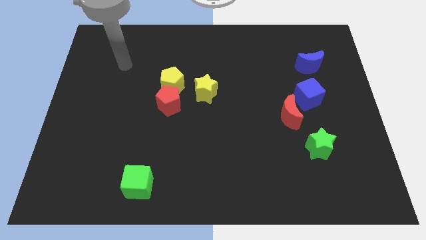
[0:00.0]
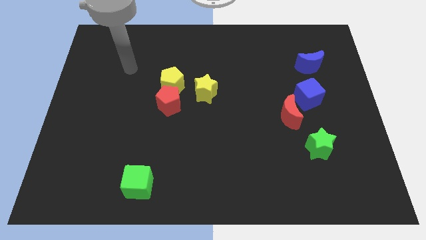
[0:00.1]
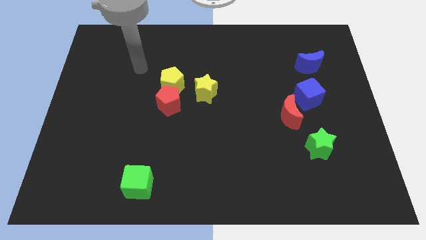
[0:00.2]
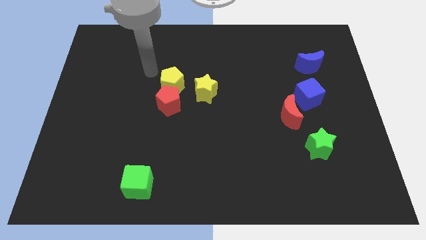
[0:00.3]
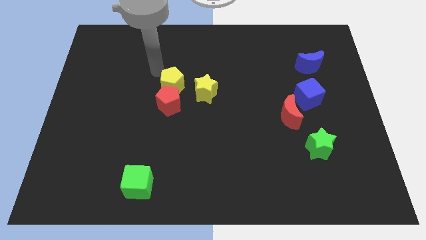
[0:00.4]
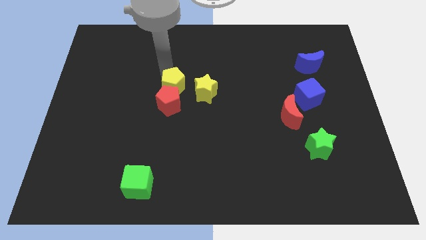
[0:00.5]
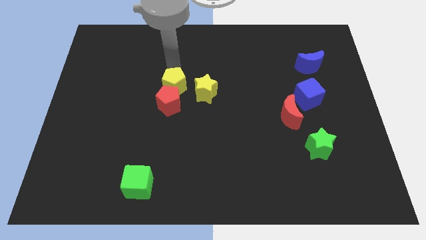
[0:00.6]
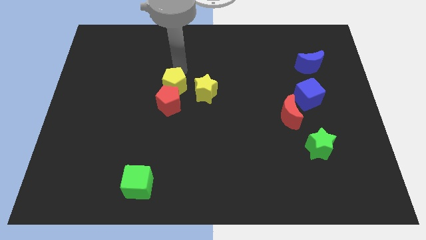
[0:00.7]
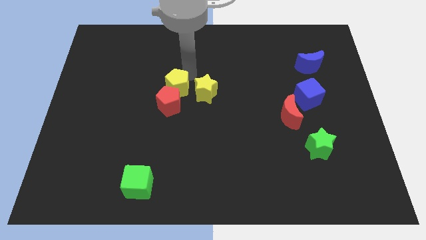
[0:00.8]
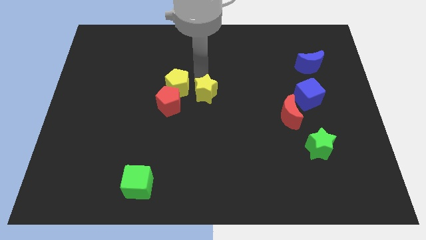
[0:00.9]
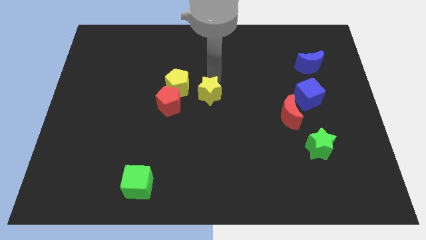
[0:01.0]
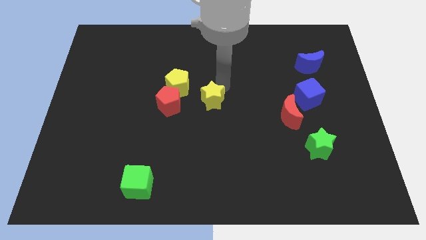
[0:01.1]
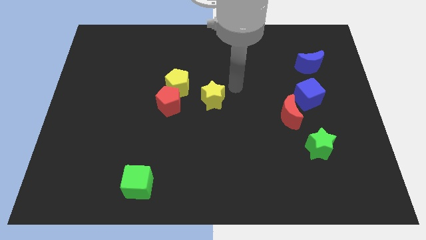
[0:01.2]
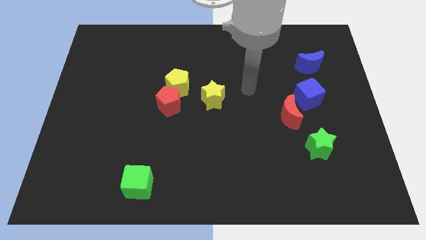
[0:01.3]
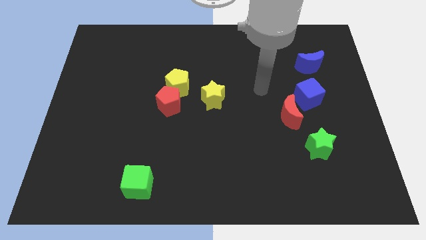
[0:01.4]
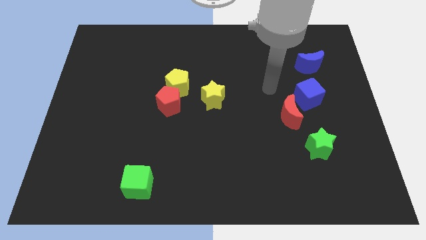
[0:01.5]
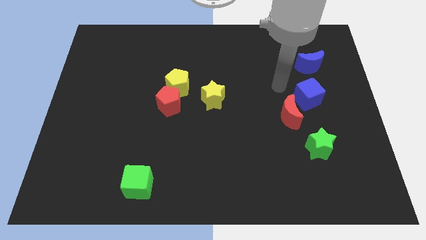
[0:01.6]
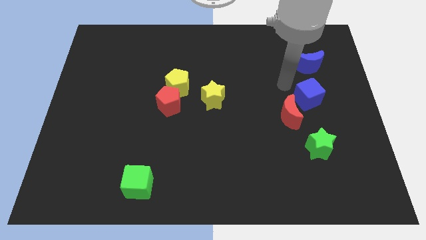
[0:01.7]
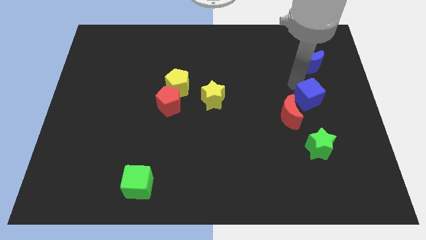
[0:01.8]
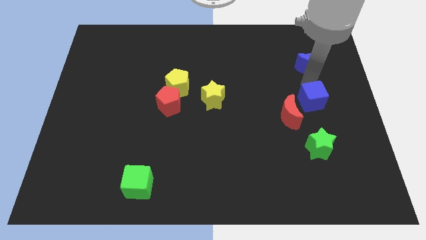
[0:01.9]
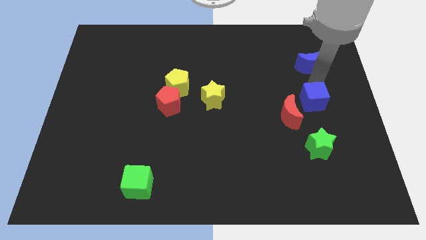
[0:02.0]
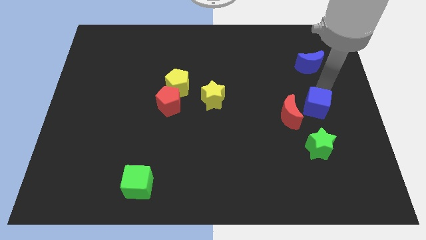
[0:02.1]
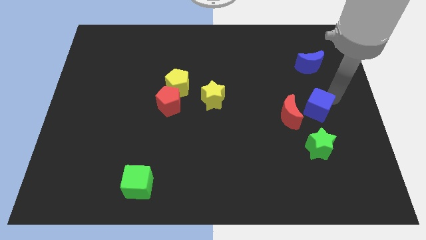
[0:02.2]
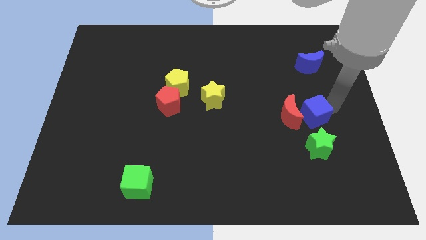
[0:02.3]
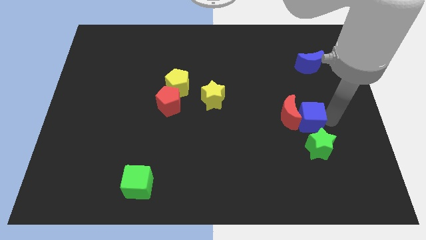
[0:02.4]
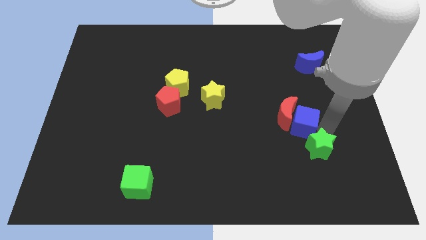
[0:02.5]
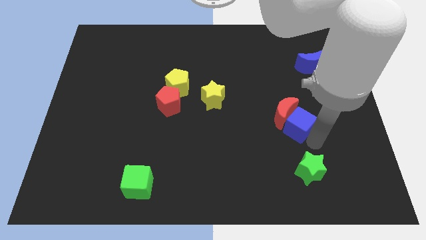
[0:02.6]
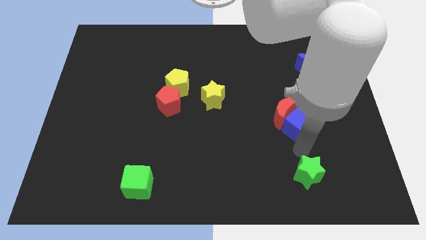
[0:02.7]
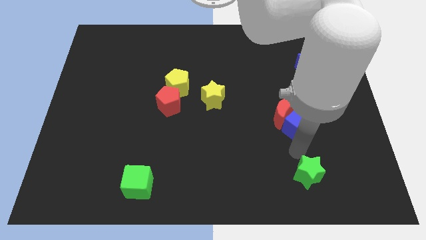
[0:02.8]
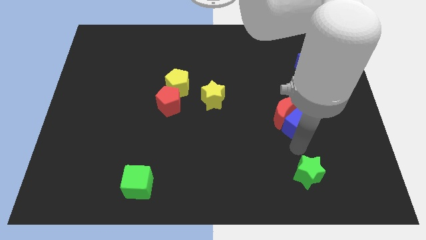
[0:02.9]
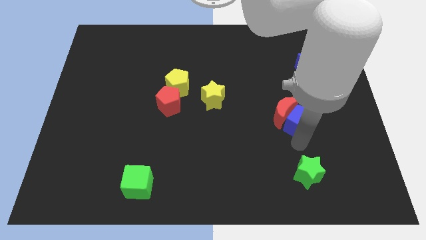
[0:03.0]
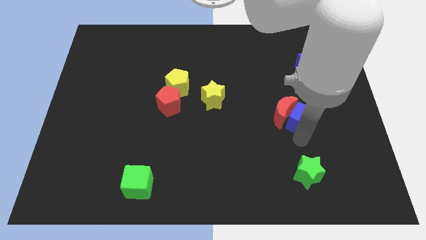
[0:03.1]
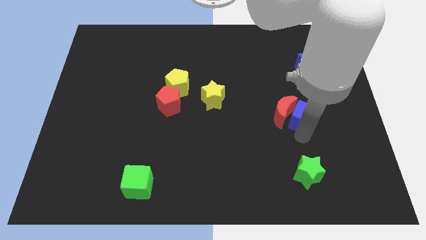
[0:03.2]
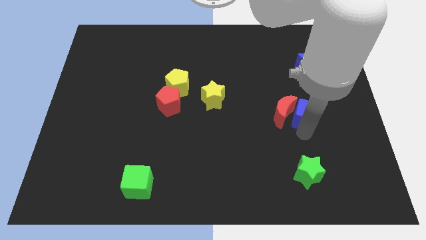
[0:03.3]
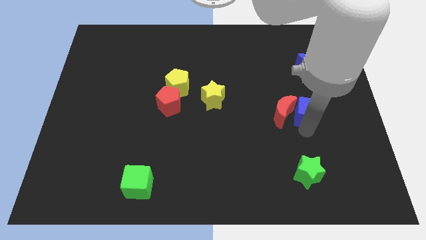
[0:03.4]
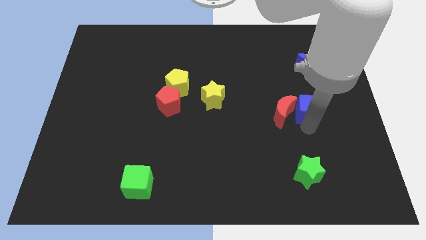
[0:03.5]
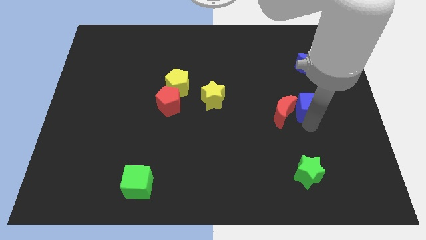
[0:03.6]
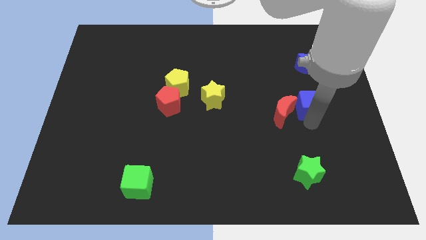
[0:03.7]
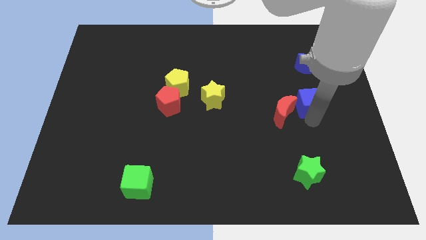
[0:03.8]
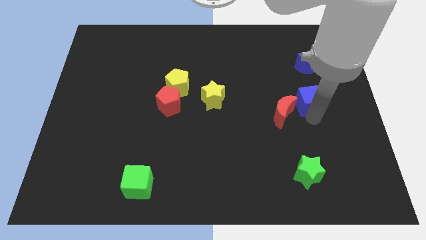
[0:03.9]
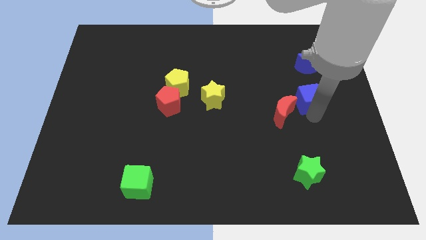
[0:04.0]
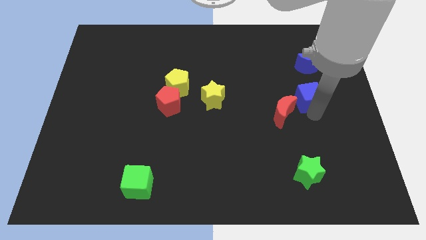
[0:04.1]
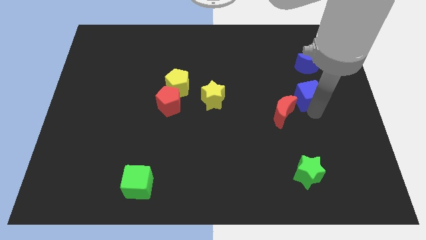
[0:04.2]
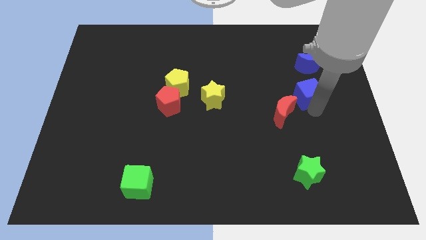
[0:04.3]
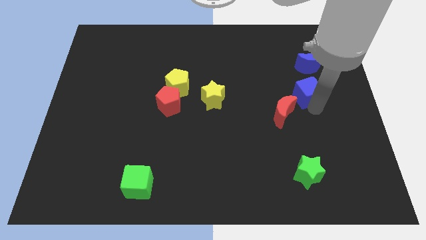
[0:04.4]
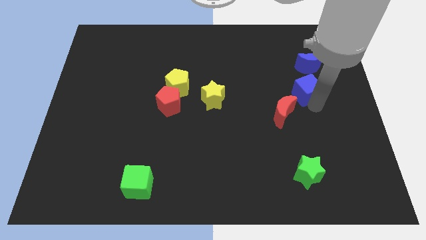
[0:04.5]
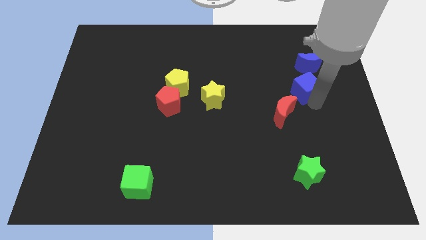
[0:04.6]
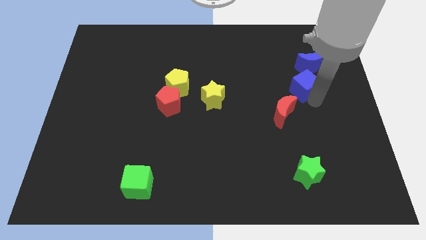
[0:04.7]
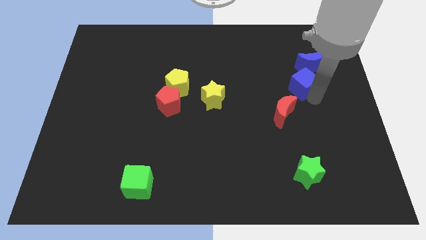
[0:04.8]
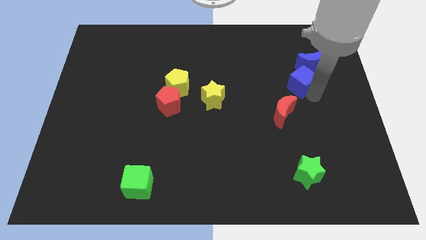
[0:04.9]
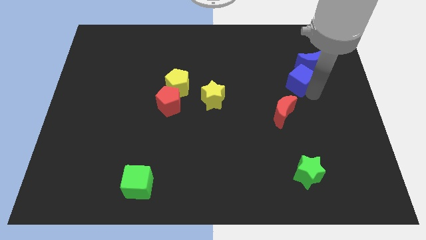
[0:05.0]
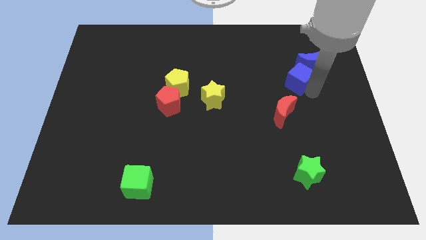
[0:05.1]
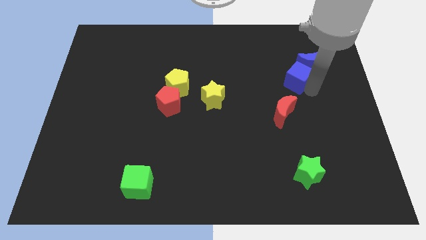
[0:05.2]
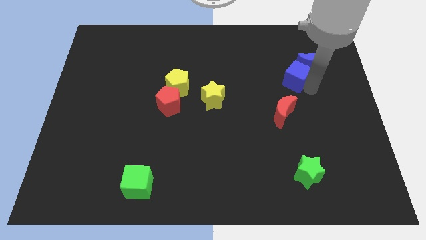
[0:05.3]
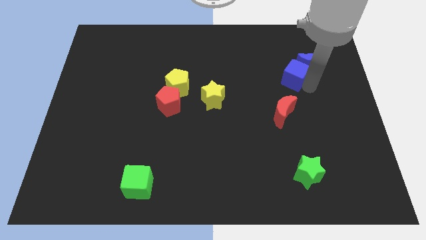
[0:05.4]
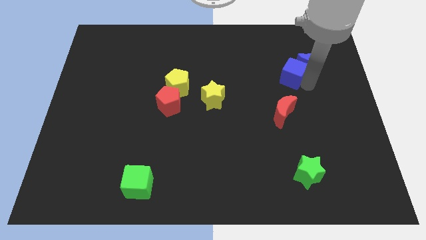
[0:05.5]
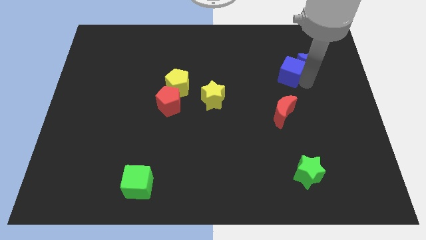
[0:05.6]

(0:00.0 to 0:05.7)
move the blue cube a little bit up and then to the left

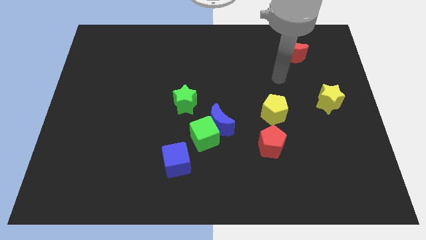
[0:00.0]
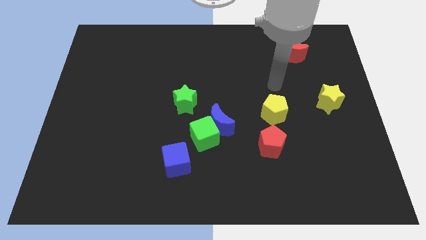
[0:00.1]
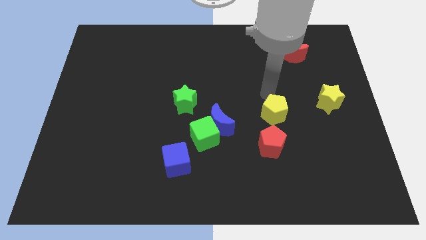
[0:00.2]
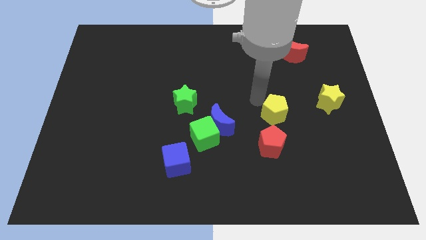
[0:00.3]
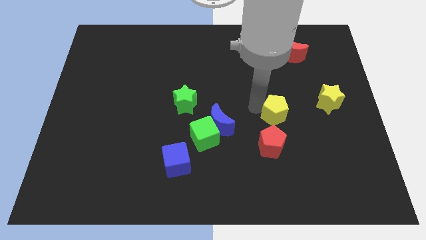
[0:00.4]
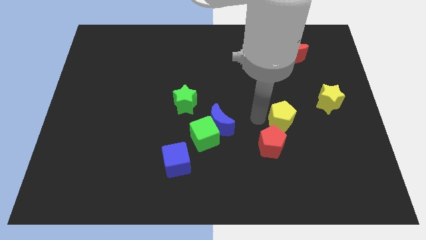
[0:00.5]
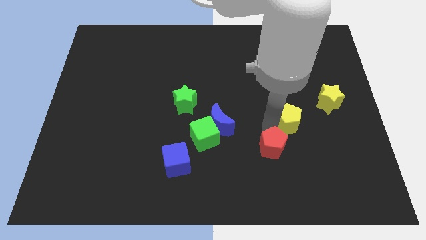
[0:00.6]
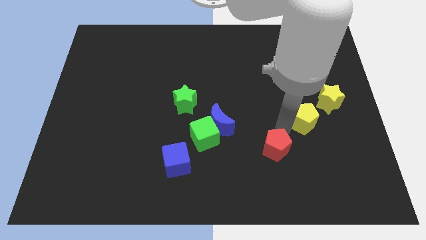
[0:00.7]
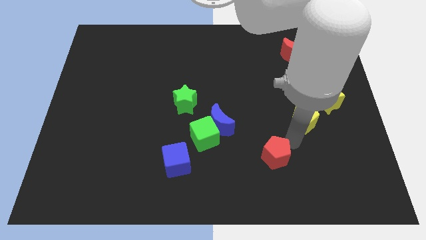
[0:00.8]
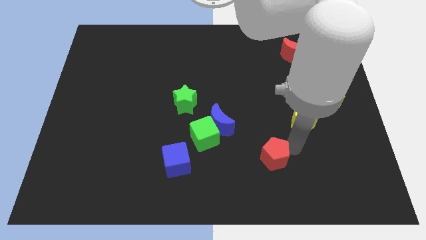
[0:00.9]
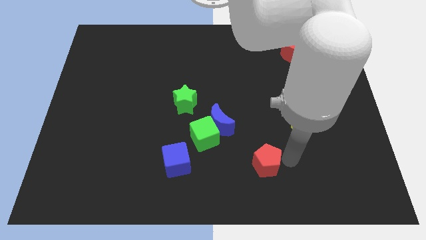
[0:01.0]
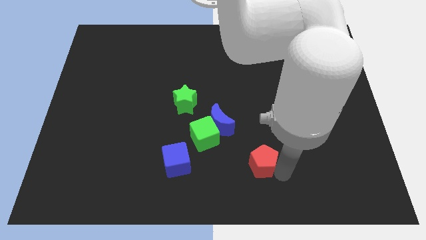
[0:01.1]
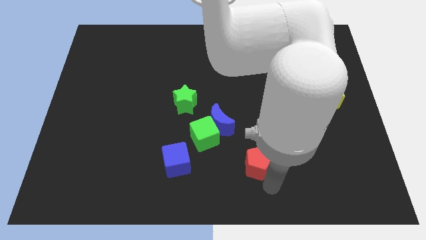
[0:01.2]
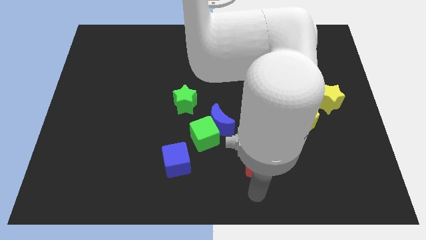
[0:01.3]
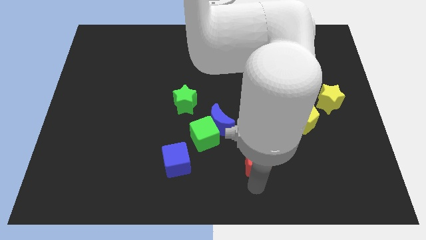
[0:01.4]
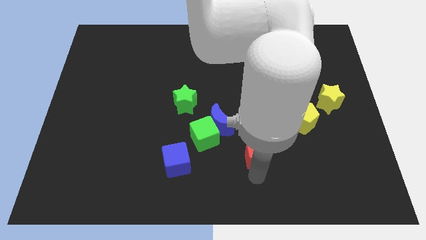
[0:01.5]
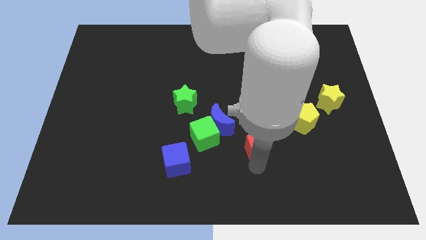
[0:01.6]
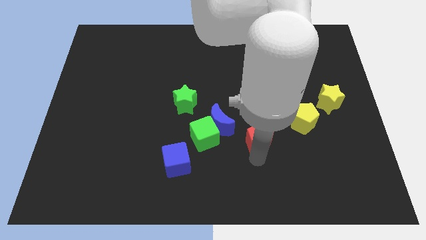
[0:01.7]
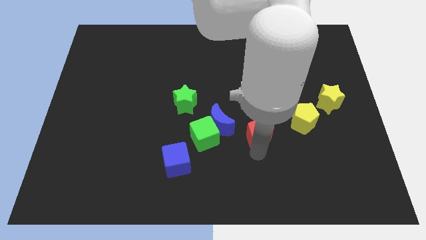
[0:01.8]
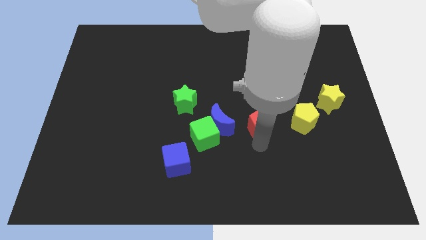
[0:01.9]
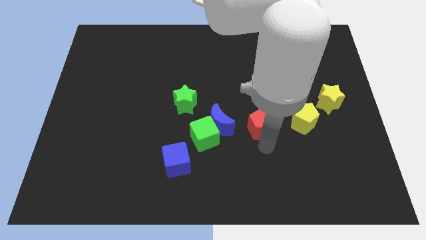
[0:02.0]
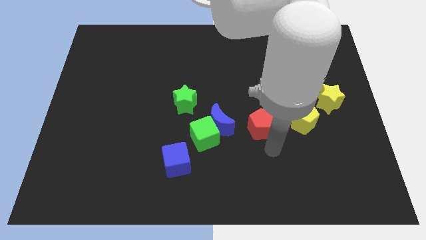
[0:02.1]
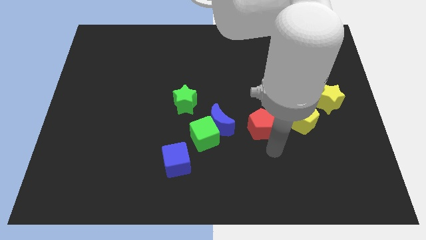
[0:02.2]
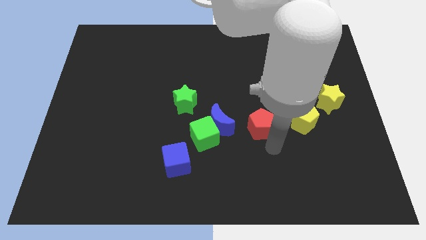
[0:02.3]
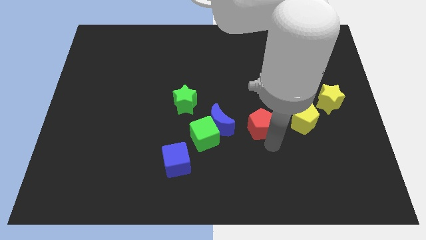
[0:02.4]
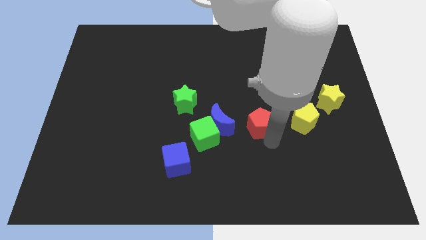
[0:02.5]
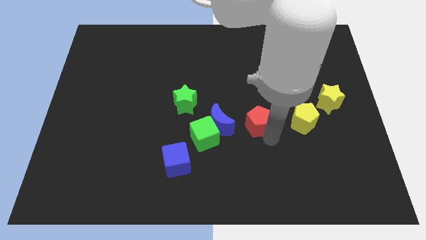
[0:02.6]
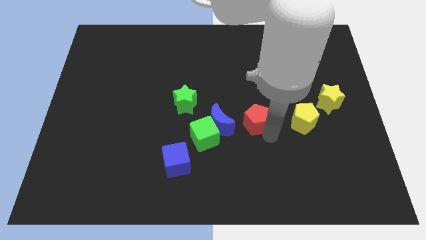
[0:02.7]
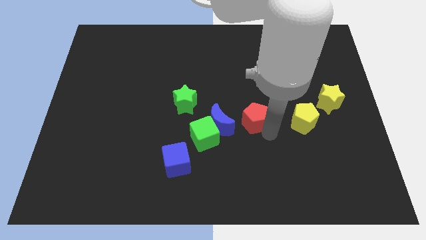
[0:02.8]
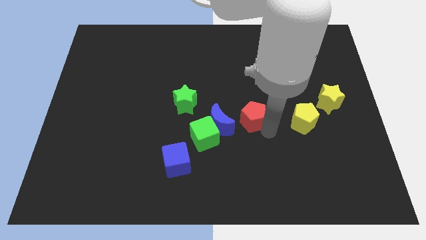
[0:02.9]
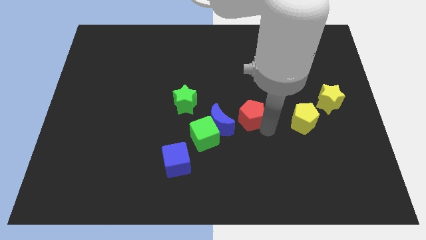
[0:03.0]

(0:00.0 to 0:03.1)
move the red pentagon upwards a little
